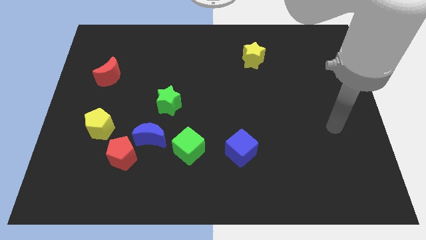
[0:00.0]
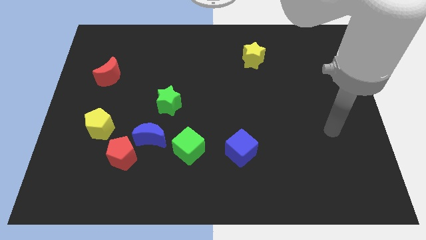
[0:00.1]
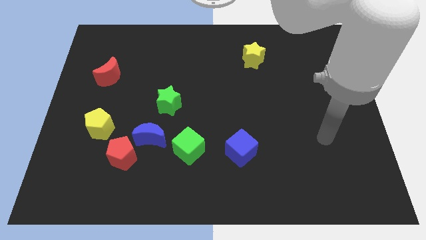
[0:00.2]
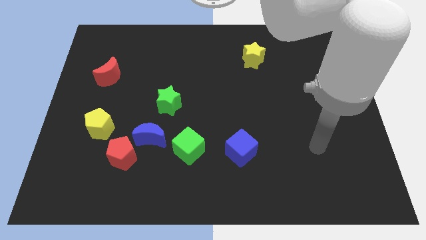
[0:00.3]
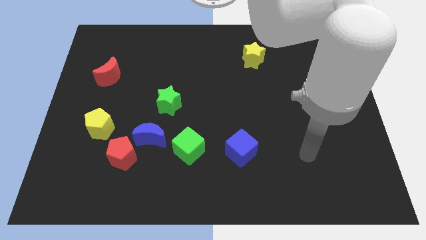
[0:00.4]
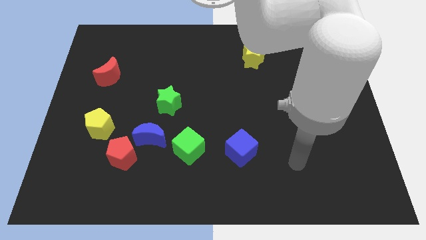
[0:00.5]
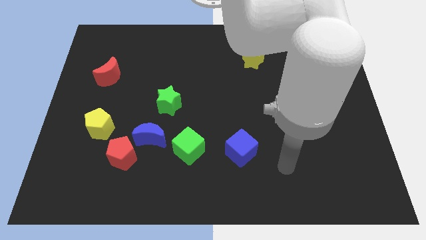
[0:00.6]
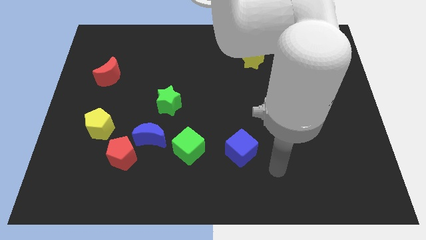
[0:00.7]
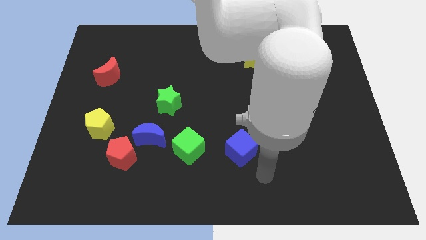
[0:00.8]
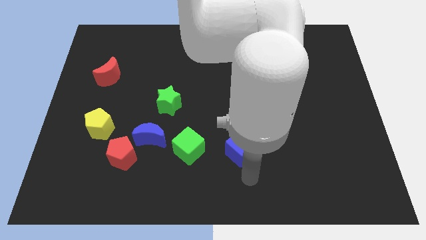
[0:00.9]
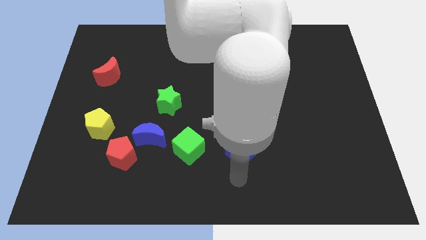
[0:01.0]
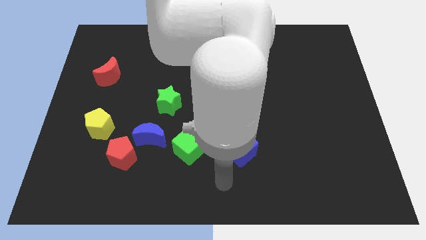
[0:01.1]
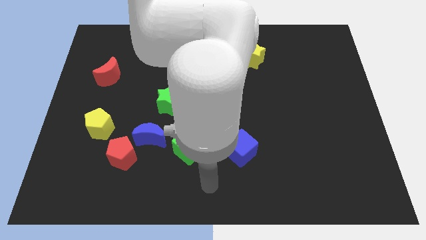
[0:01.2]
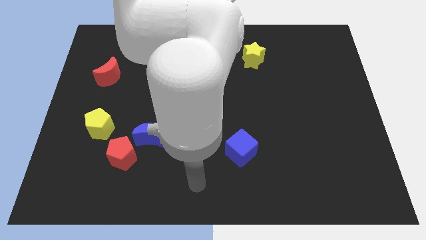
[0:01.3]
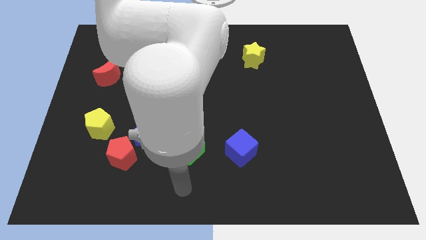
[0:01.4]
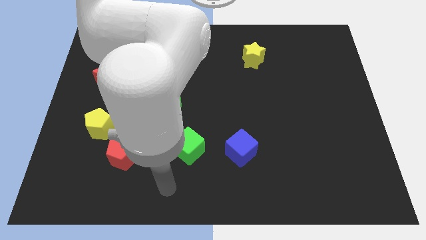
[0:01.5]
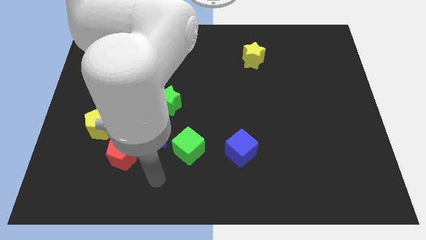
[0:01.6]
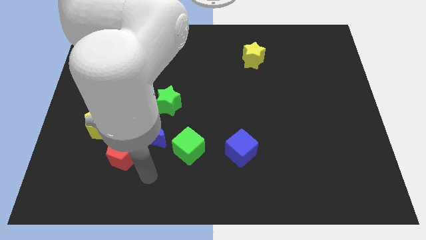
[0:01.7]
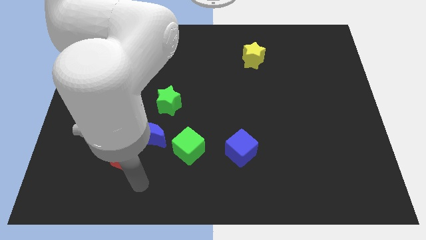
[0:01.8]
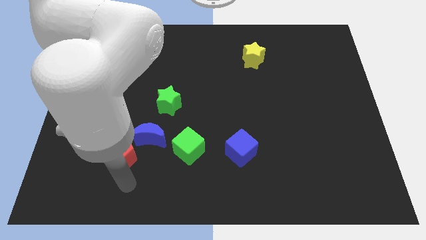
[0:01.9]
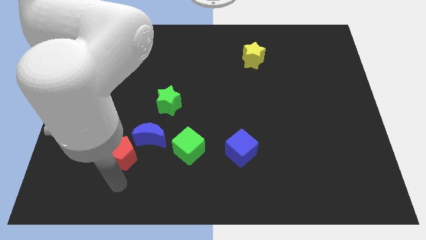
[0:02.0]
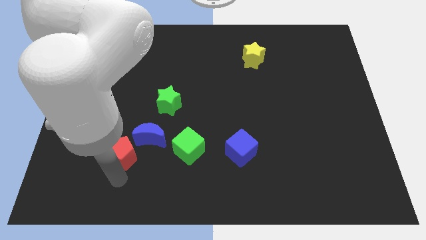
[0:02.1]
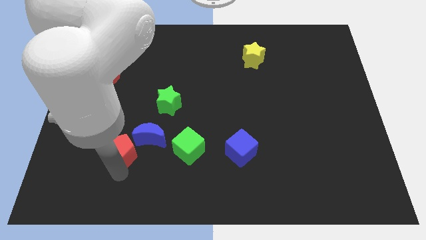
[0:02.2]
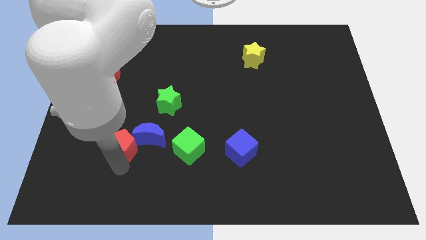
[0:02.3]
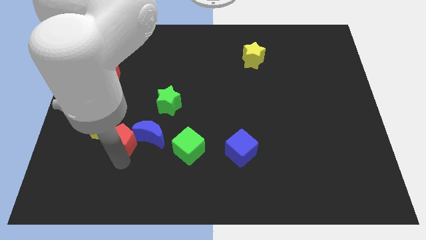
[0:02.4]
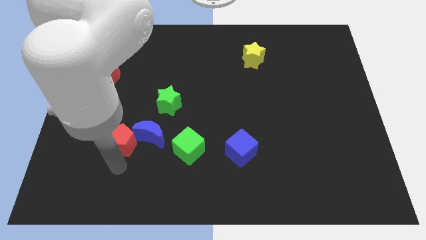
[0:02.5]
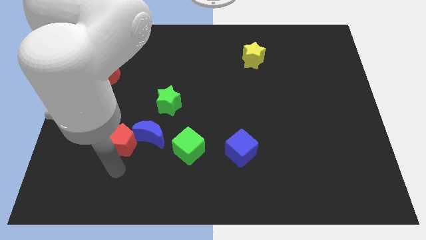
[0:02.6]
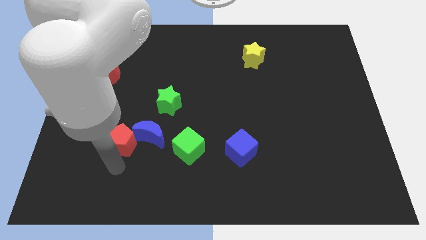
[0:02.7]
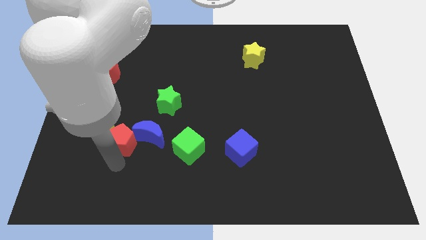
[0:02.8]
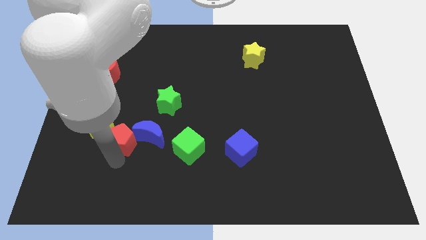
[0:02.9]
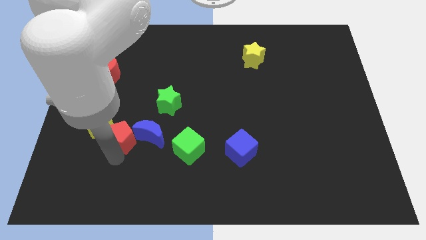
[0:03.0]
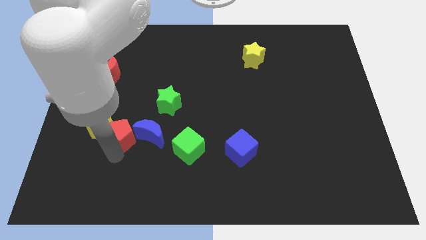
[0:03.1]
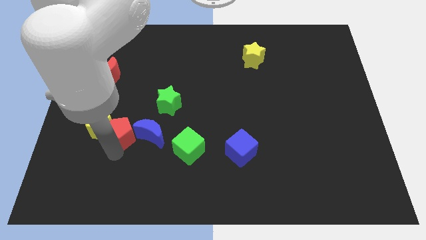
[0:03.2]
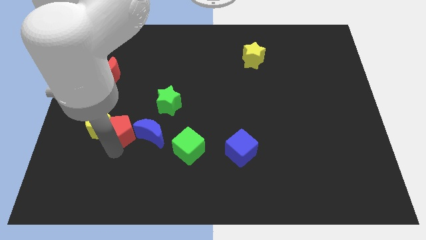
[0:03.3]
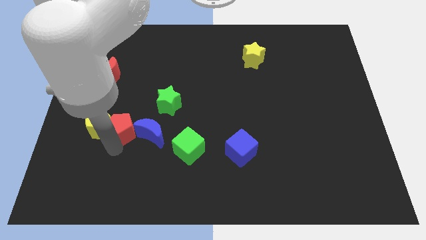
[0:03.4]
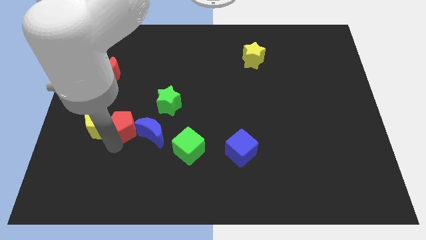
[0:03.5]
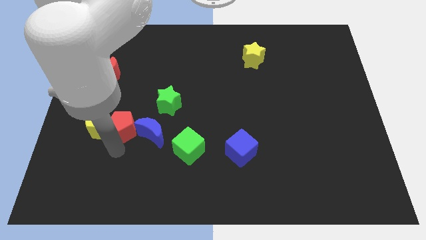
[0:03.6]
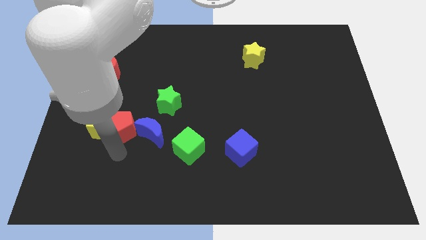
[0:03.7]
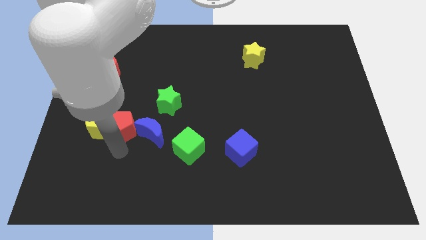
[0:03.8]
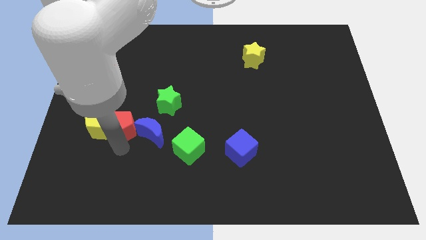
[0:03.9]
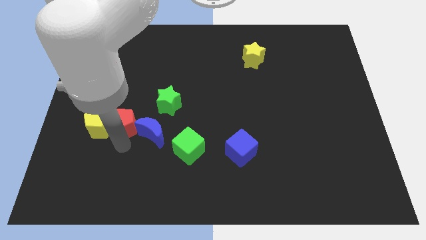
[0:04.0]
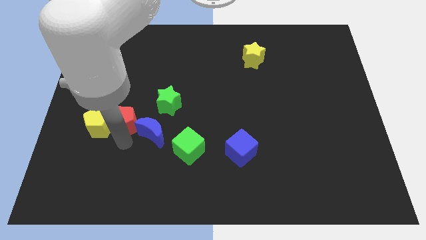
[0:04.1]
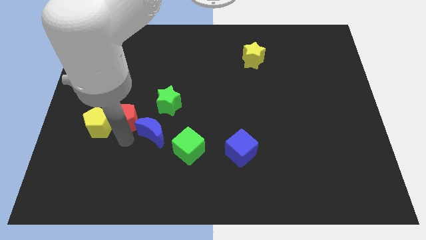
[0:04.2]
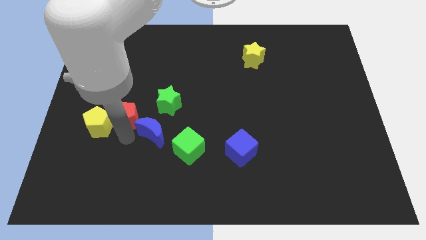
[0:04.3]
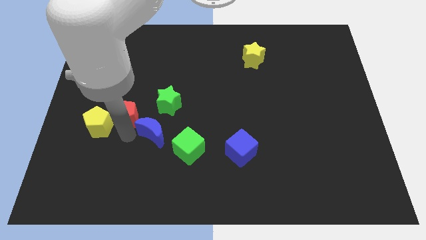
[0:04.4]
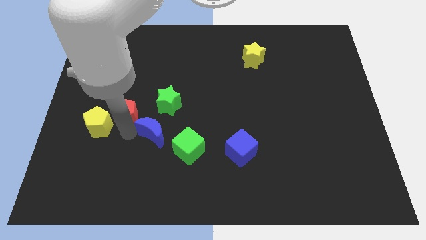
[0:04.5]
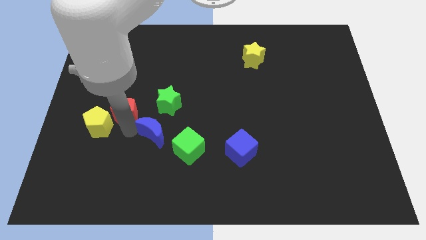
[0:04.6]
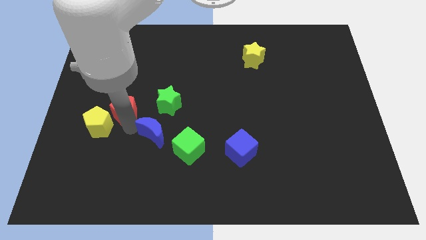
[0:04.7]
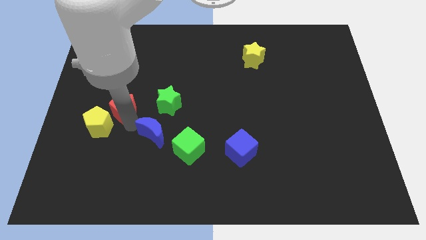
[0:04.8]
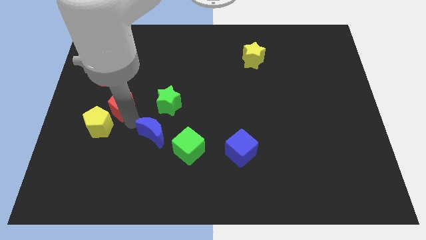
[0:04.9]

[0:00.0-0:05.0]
put the red pentagon to the bottom of the red moon

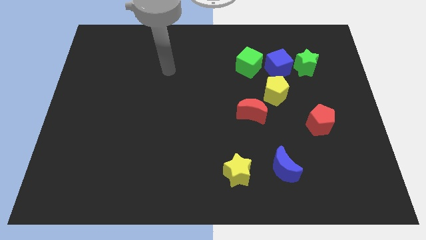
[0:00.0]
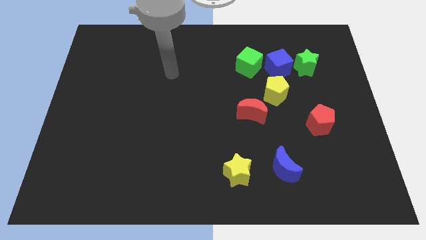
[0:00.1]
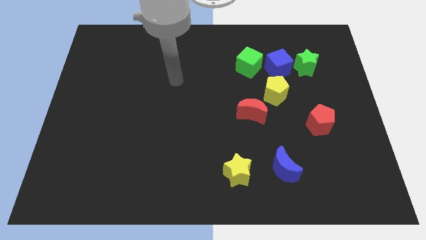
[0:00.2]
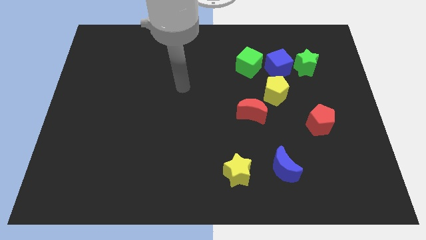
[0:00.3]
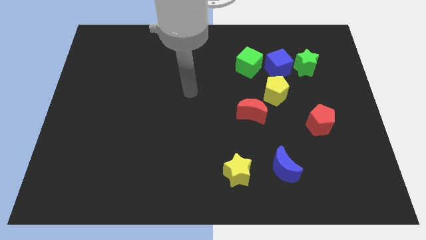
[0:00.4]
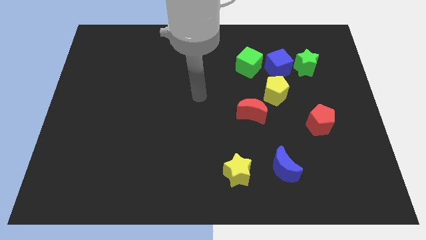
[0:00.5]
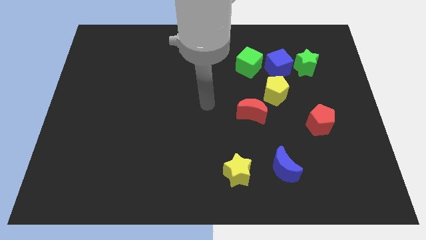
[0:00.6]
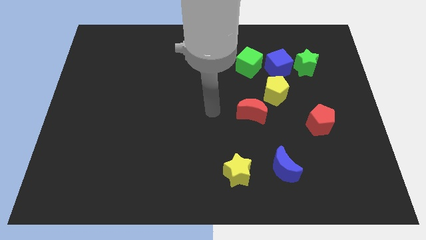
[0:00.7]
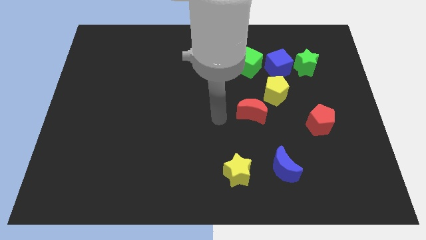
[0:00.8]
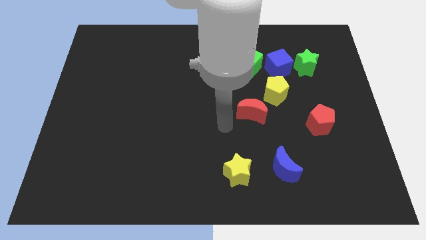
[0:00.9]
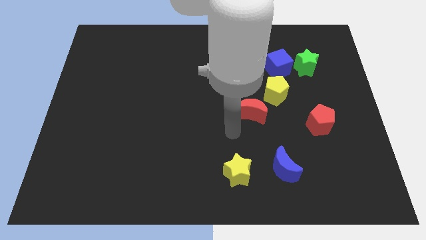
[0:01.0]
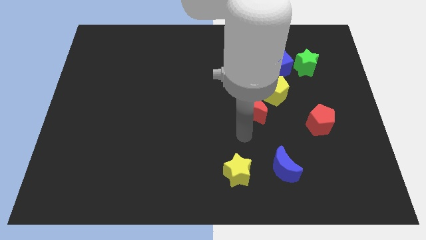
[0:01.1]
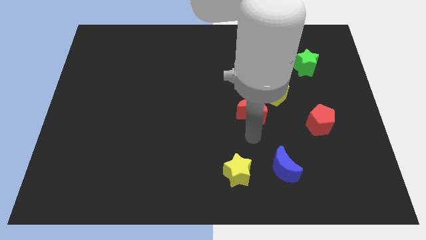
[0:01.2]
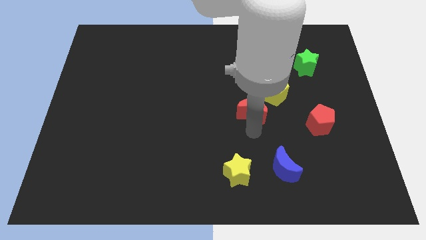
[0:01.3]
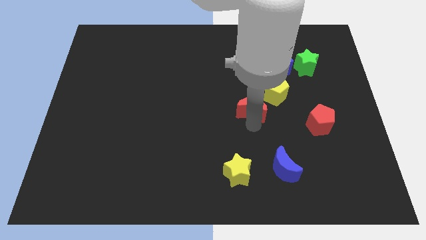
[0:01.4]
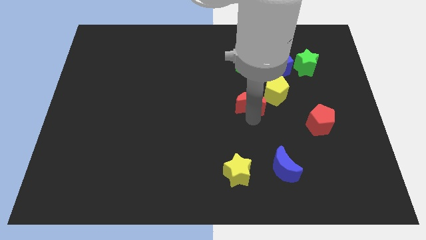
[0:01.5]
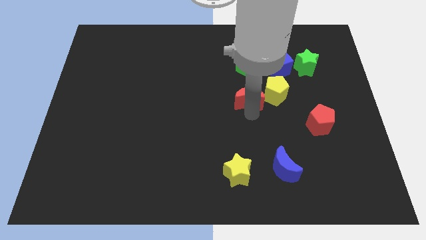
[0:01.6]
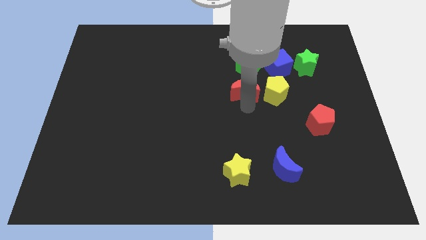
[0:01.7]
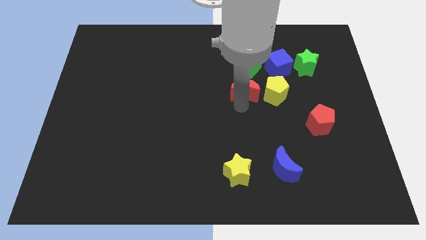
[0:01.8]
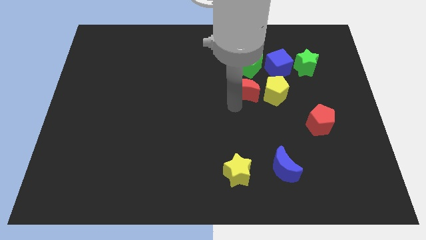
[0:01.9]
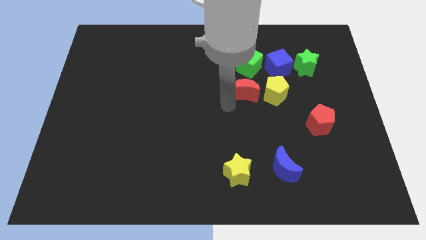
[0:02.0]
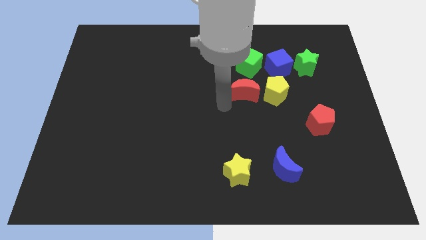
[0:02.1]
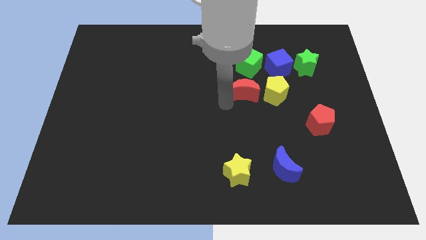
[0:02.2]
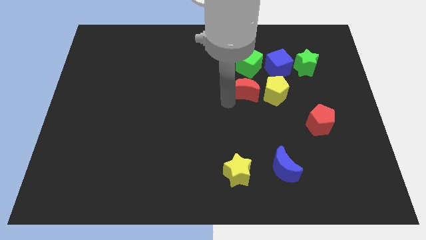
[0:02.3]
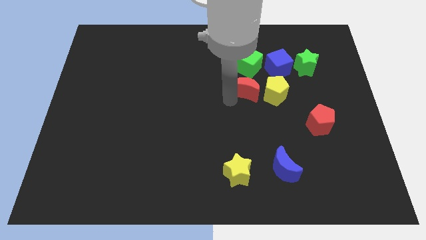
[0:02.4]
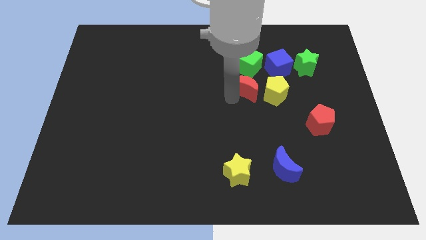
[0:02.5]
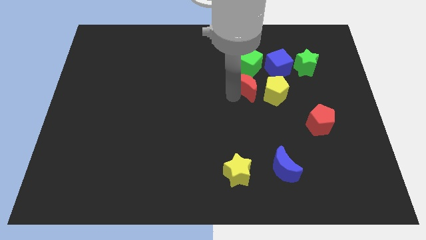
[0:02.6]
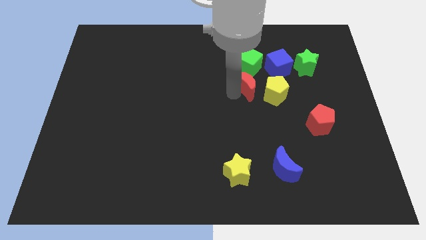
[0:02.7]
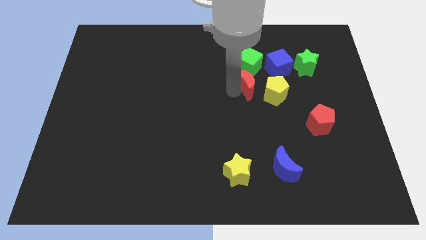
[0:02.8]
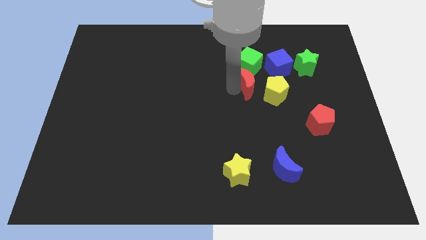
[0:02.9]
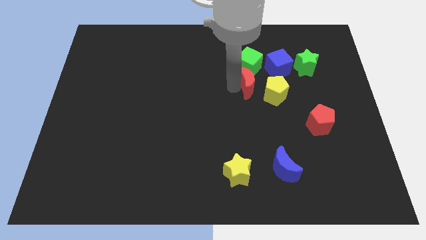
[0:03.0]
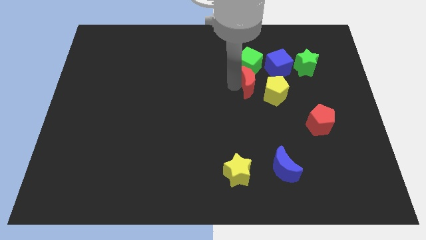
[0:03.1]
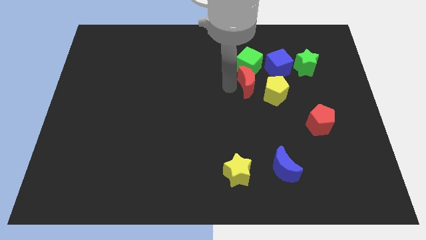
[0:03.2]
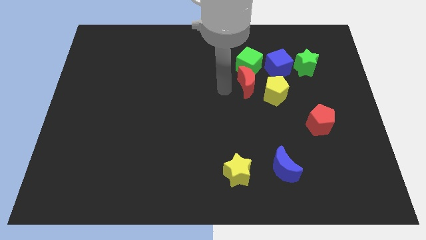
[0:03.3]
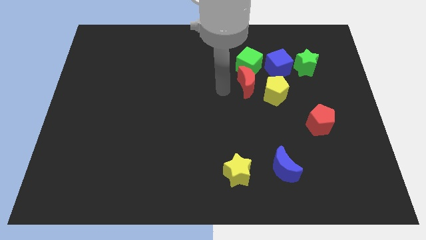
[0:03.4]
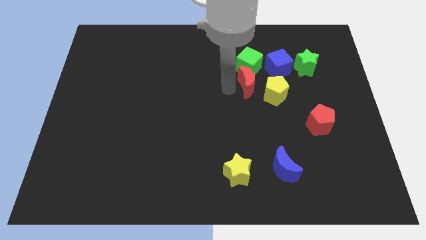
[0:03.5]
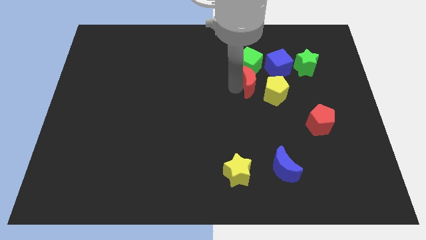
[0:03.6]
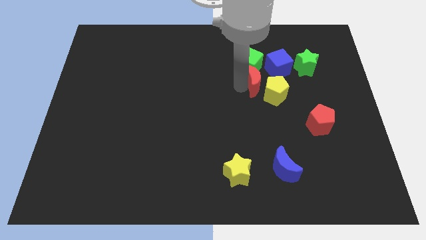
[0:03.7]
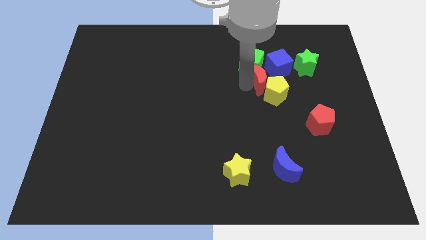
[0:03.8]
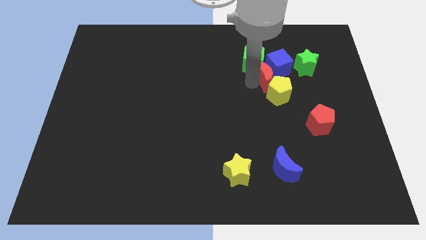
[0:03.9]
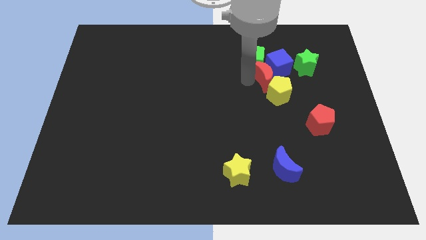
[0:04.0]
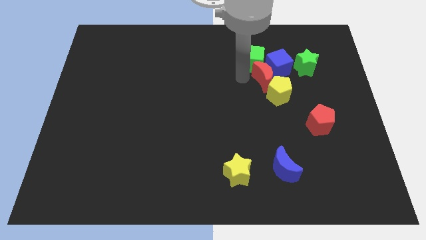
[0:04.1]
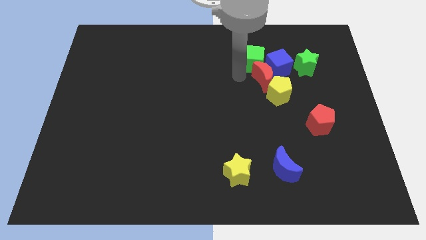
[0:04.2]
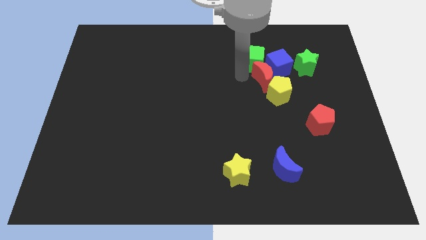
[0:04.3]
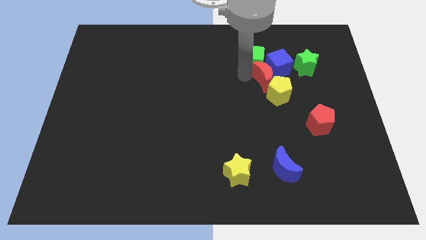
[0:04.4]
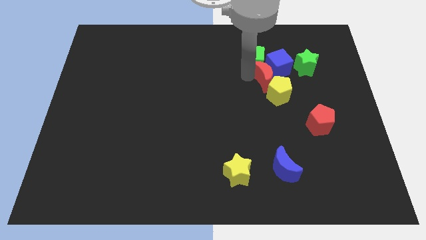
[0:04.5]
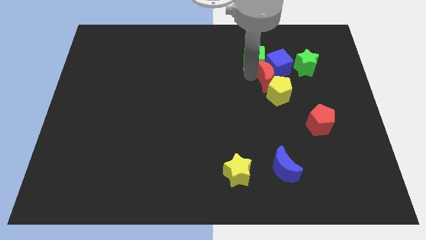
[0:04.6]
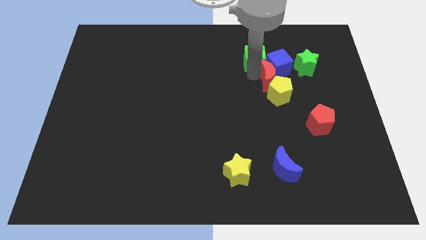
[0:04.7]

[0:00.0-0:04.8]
move the red moon to the bottom left of the green star
